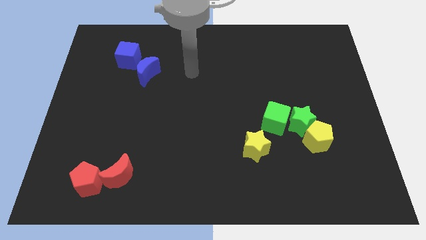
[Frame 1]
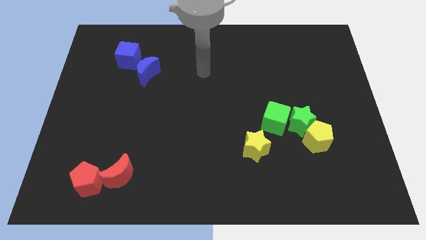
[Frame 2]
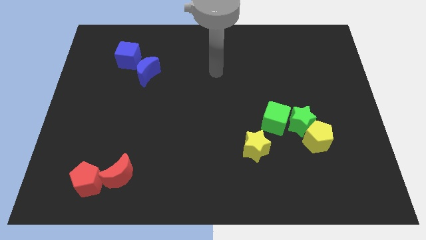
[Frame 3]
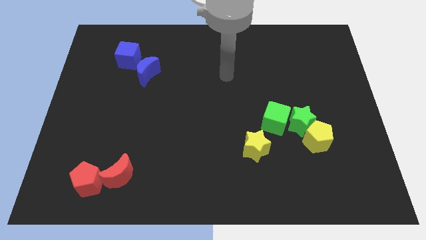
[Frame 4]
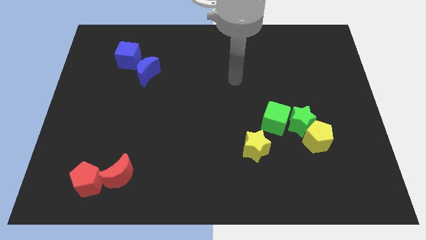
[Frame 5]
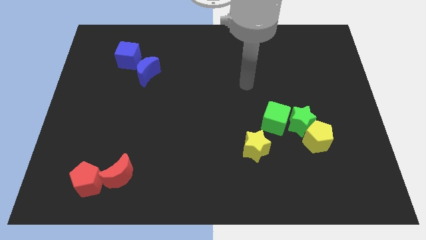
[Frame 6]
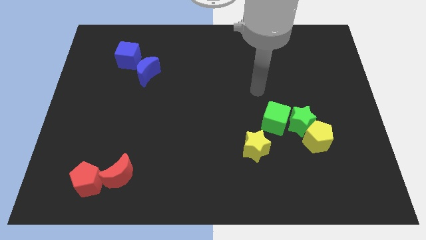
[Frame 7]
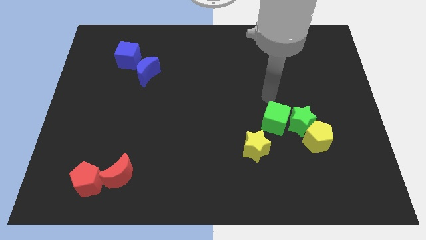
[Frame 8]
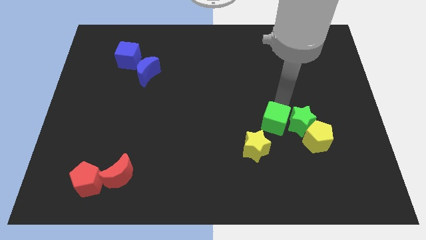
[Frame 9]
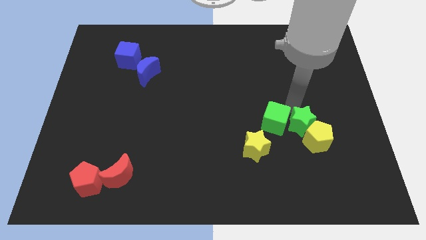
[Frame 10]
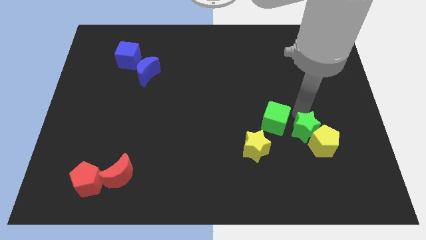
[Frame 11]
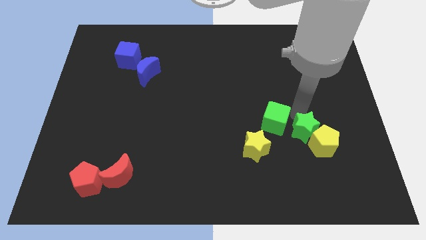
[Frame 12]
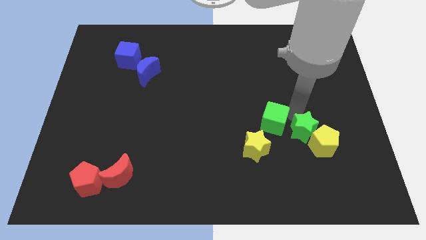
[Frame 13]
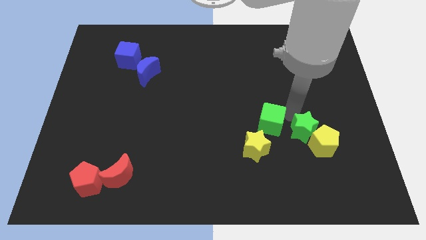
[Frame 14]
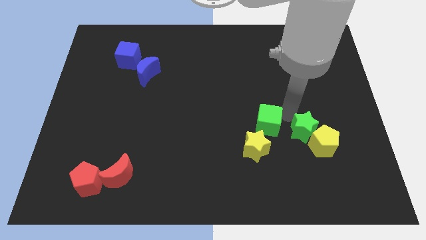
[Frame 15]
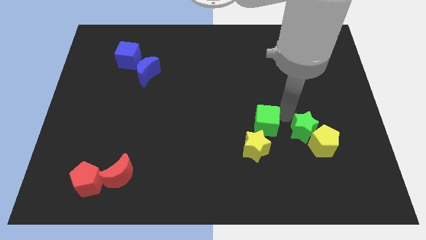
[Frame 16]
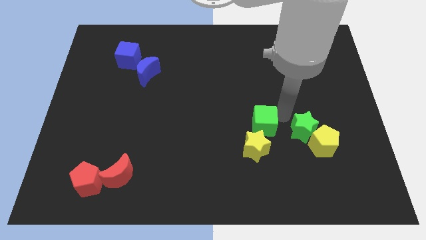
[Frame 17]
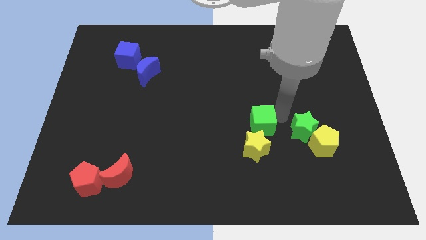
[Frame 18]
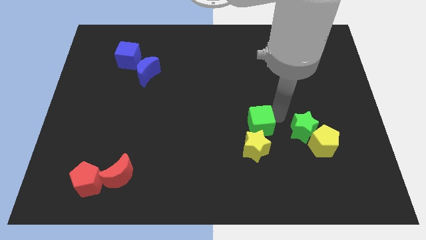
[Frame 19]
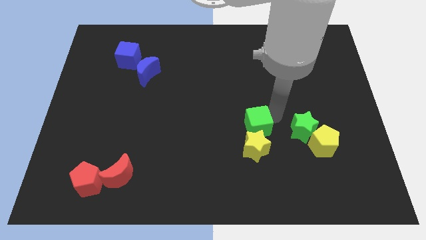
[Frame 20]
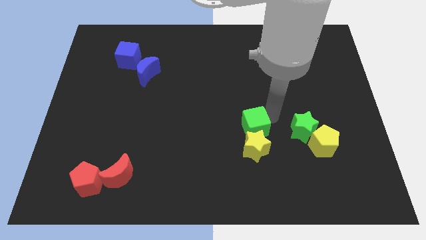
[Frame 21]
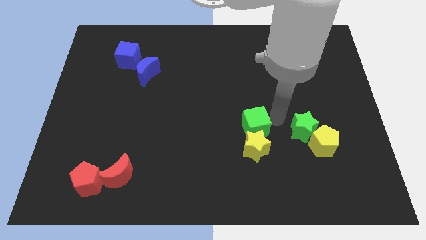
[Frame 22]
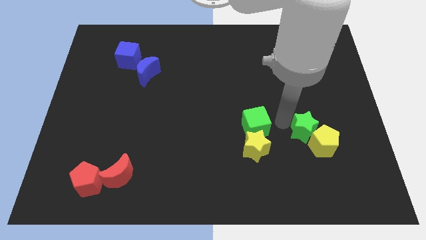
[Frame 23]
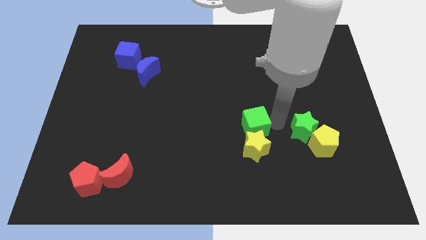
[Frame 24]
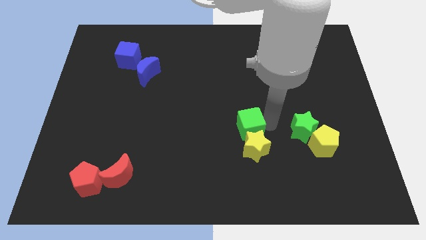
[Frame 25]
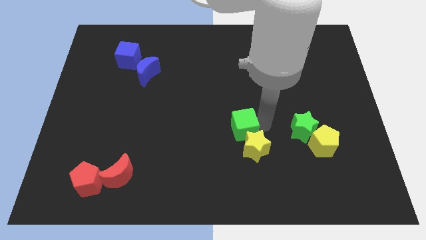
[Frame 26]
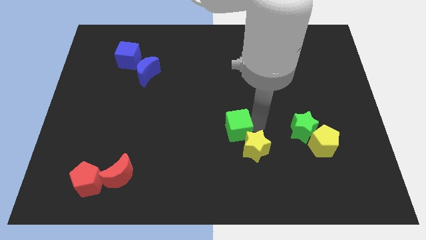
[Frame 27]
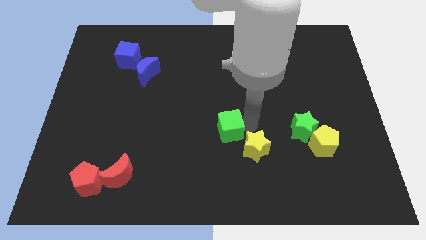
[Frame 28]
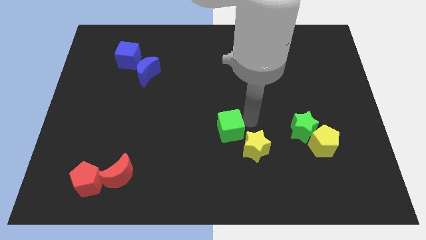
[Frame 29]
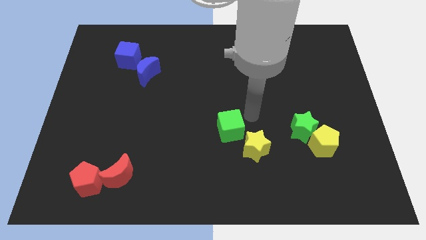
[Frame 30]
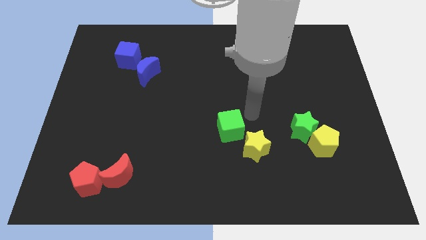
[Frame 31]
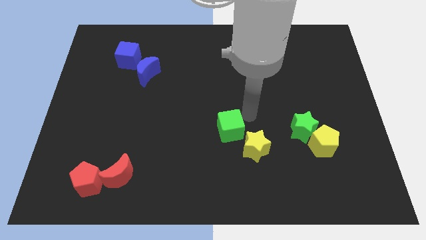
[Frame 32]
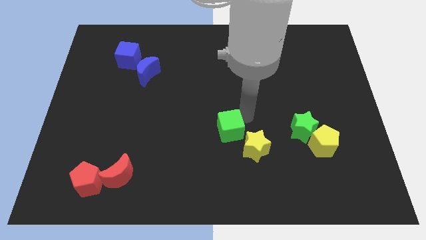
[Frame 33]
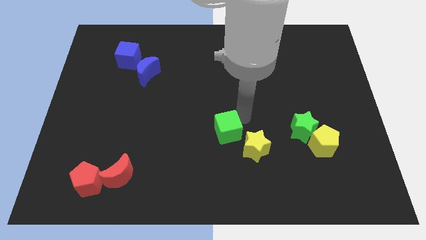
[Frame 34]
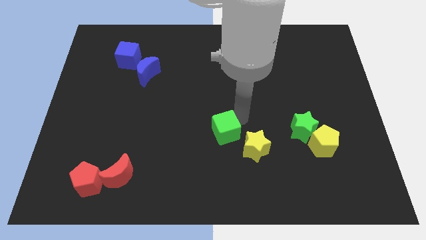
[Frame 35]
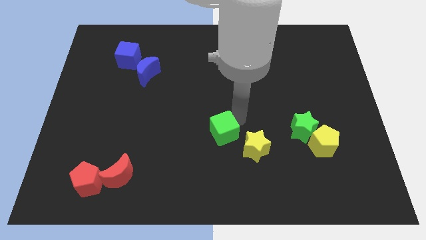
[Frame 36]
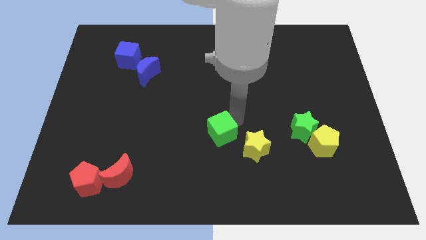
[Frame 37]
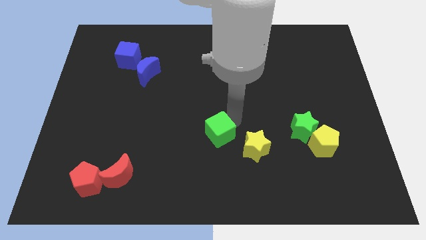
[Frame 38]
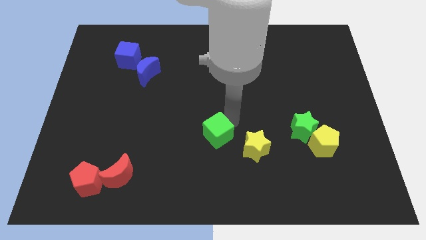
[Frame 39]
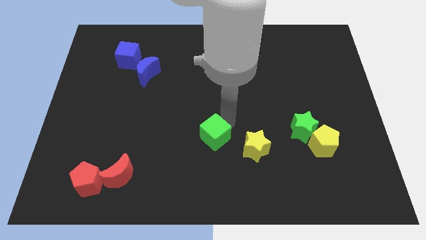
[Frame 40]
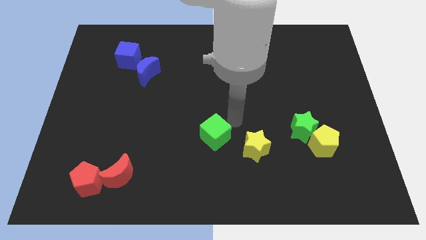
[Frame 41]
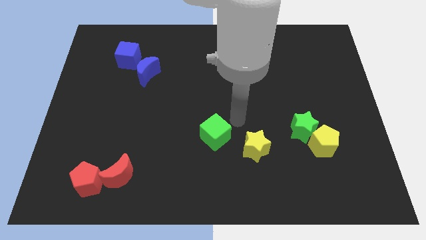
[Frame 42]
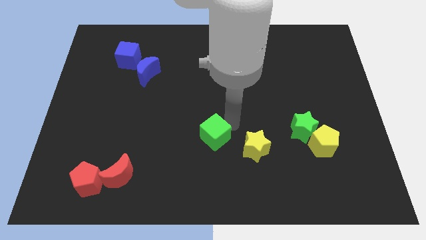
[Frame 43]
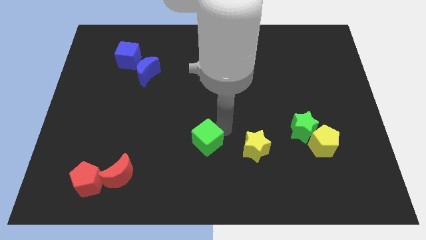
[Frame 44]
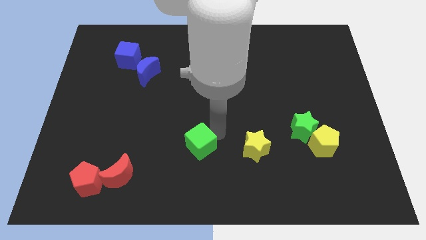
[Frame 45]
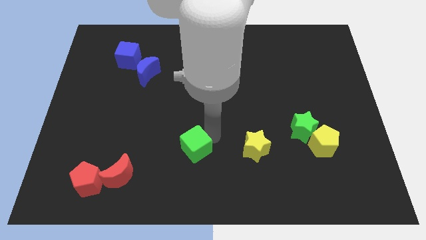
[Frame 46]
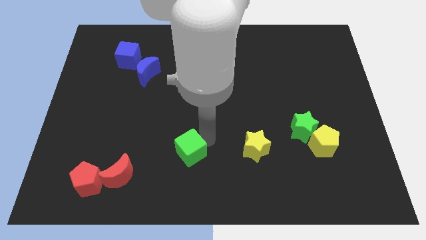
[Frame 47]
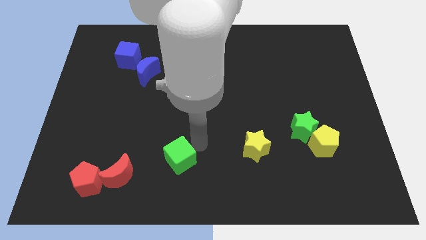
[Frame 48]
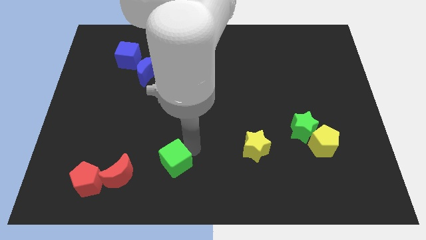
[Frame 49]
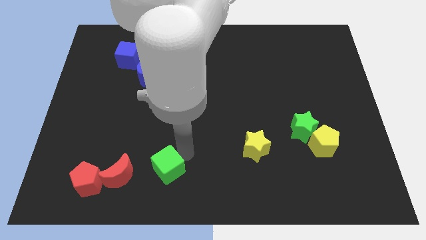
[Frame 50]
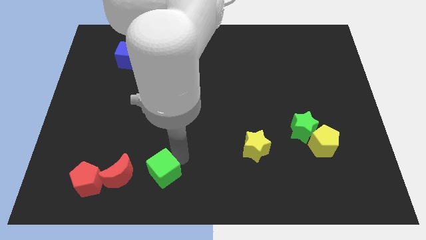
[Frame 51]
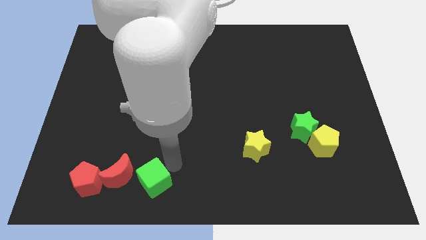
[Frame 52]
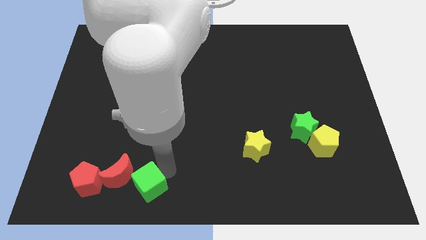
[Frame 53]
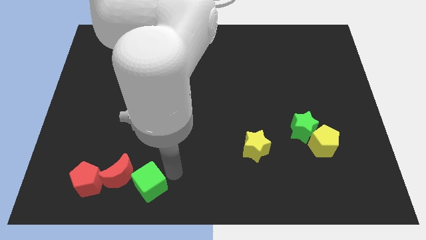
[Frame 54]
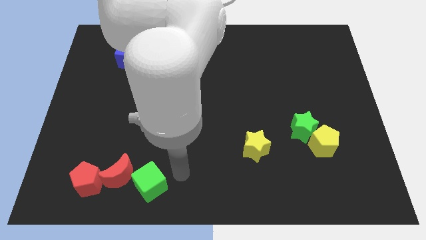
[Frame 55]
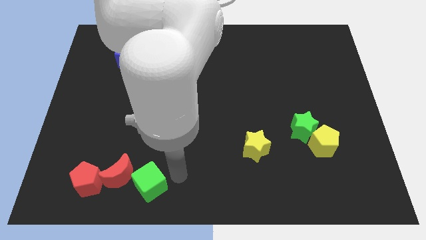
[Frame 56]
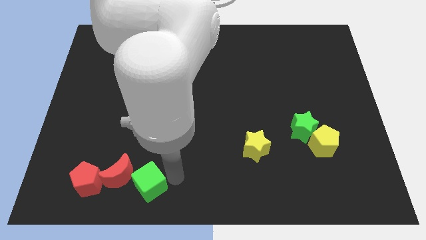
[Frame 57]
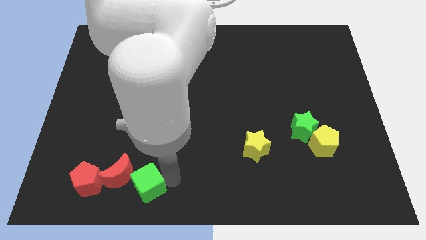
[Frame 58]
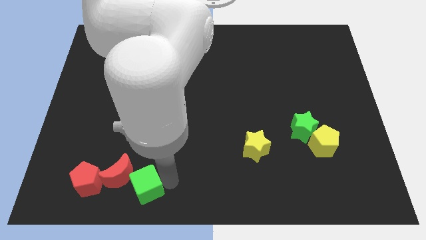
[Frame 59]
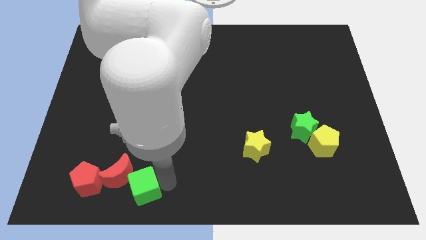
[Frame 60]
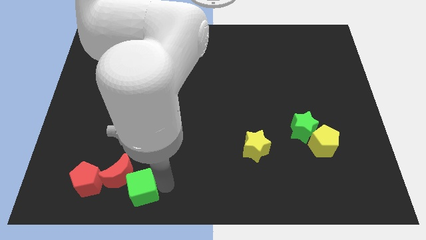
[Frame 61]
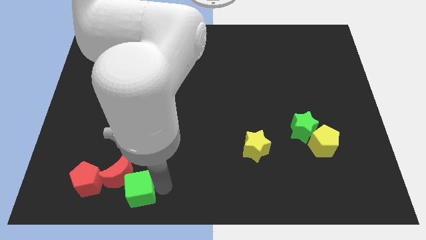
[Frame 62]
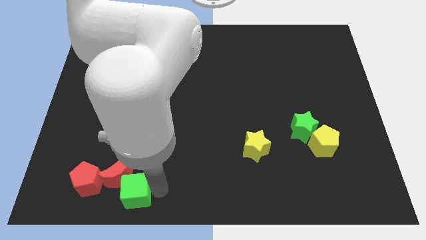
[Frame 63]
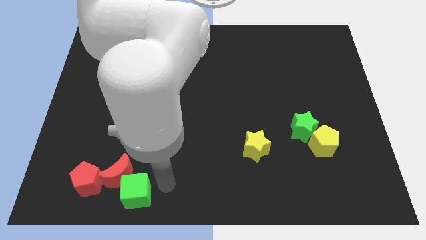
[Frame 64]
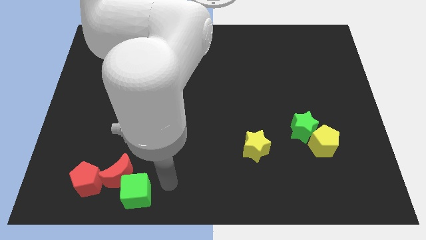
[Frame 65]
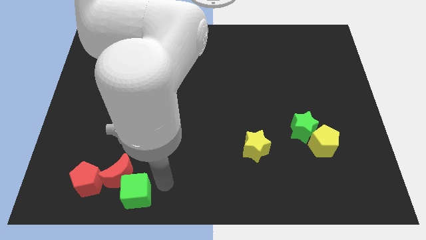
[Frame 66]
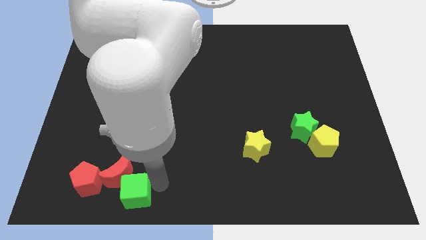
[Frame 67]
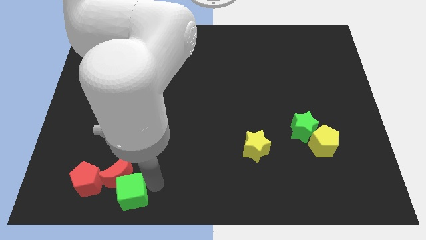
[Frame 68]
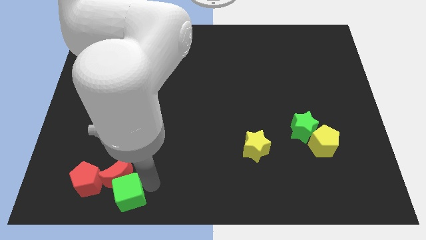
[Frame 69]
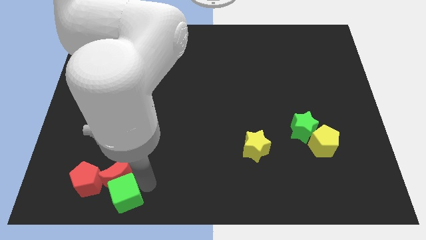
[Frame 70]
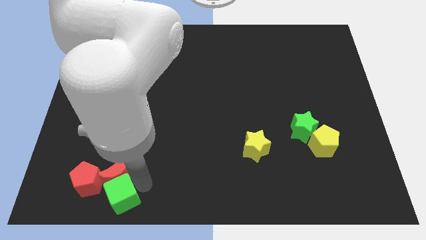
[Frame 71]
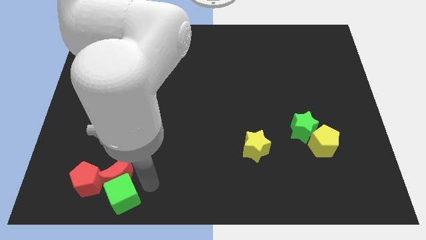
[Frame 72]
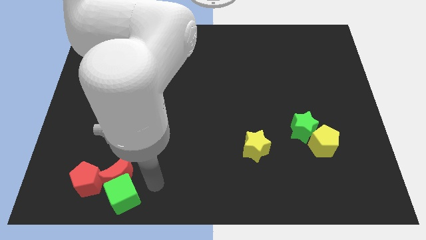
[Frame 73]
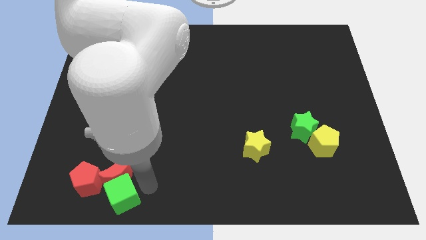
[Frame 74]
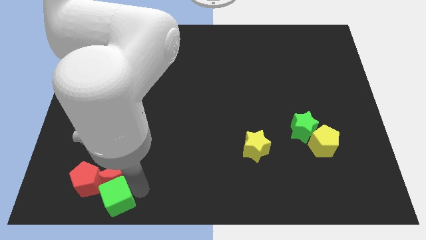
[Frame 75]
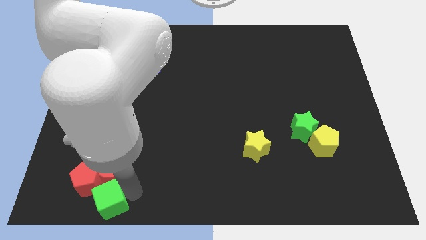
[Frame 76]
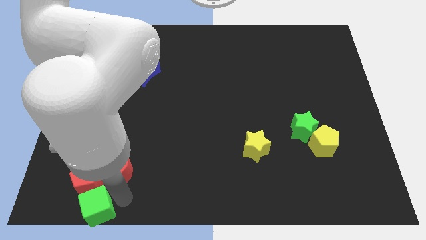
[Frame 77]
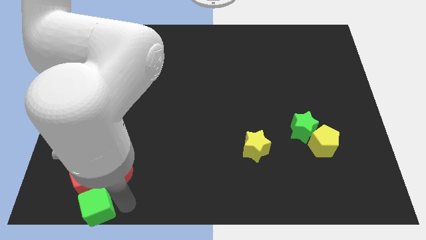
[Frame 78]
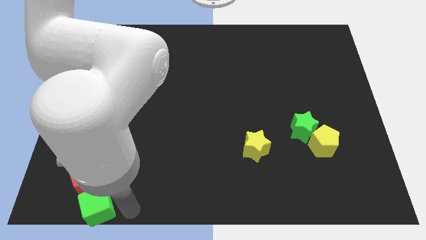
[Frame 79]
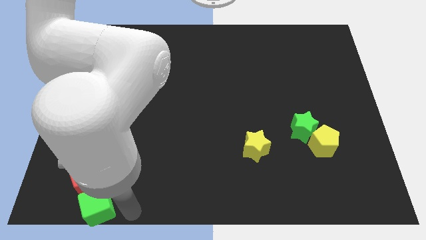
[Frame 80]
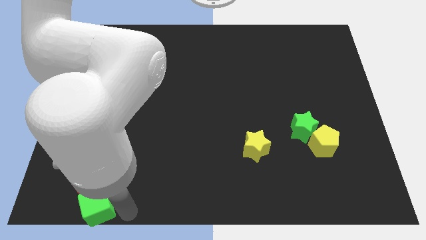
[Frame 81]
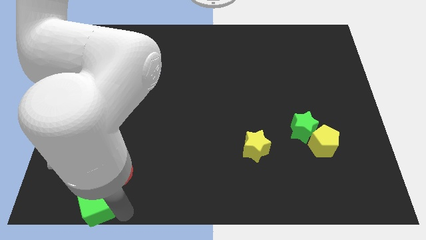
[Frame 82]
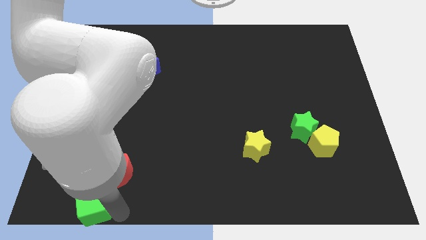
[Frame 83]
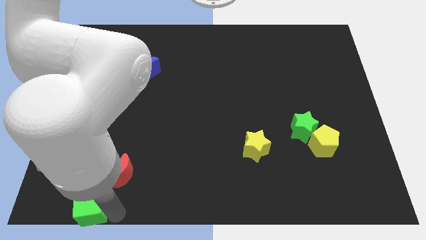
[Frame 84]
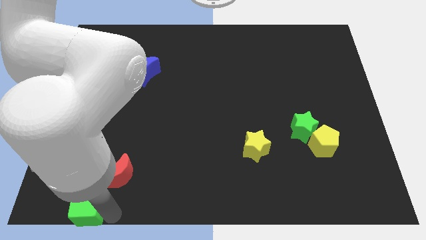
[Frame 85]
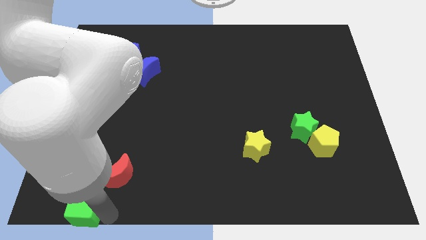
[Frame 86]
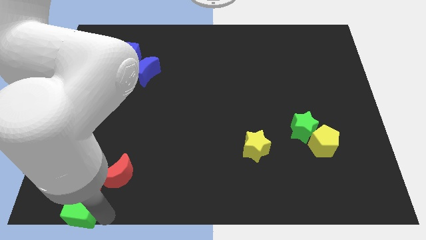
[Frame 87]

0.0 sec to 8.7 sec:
move the green cube to the bottom left of the board
